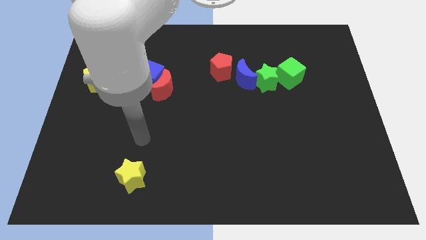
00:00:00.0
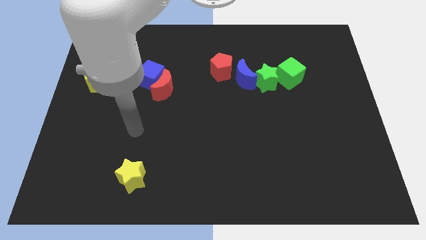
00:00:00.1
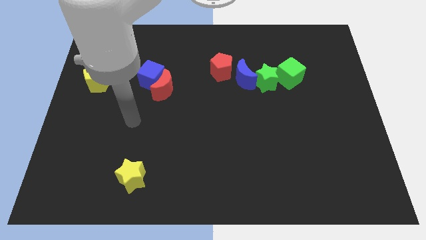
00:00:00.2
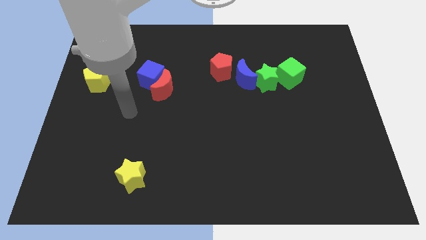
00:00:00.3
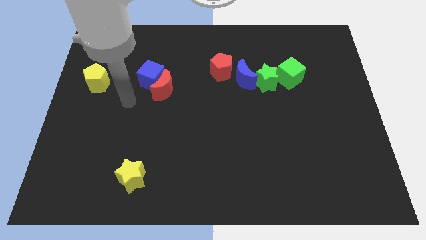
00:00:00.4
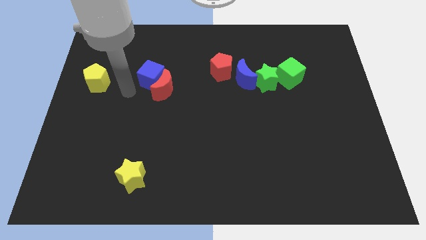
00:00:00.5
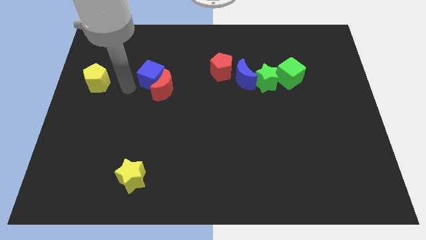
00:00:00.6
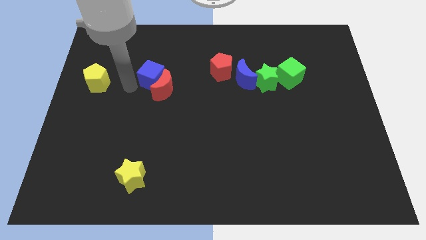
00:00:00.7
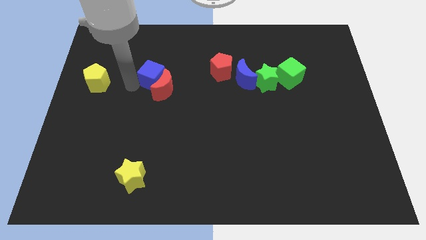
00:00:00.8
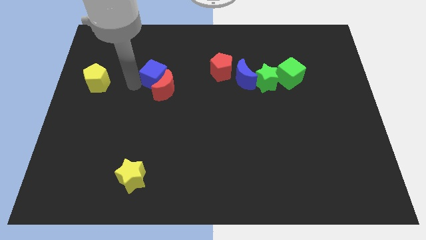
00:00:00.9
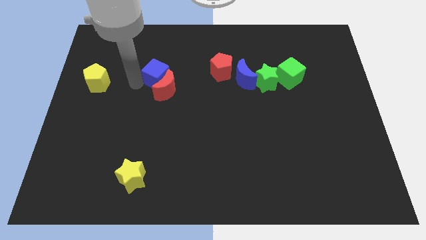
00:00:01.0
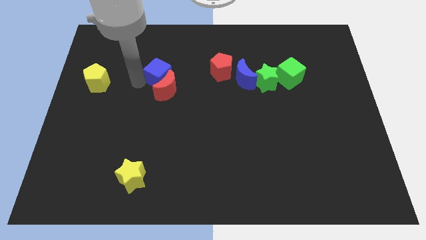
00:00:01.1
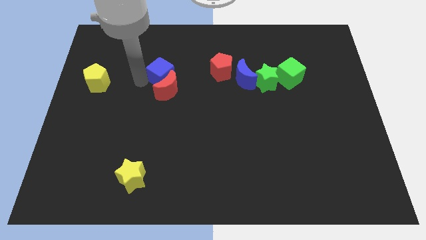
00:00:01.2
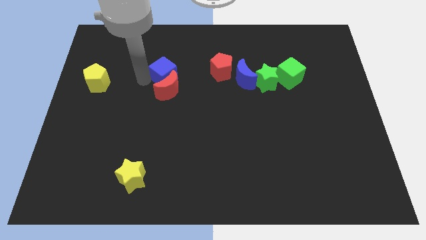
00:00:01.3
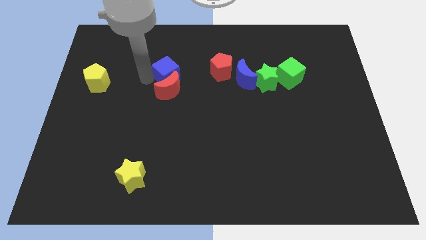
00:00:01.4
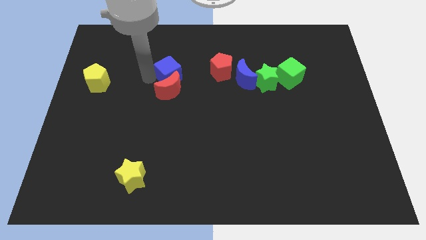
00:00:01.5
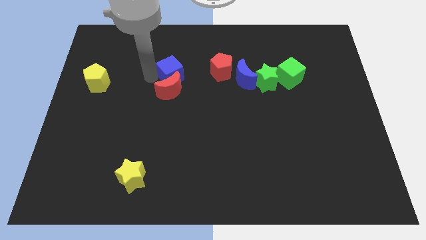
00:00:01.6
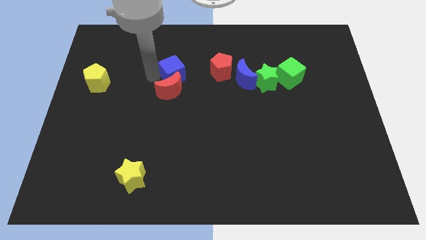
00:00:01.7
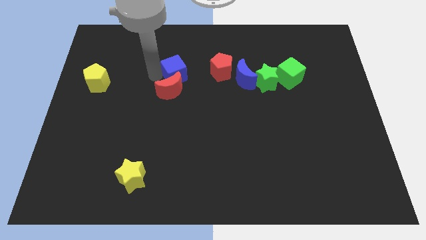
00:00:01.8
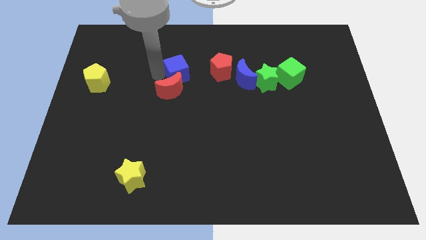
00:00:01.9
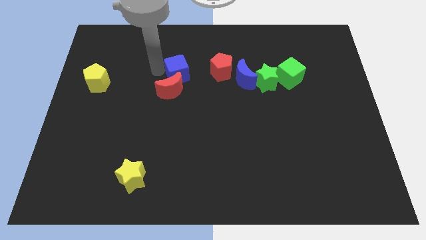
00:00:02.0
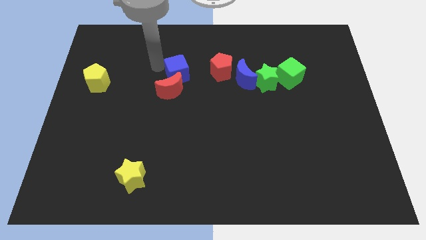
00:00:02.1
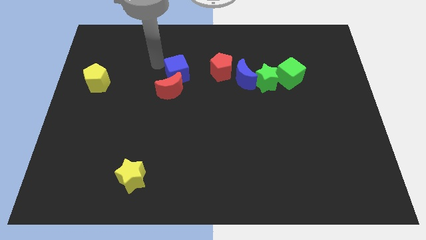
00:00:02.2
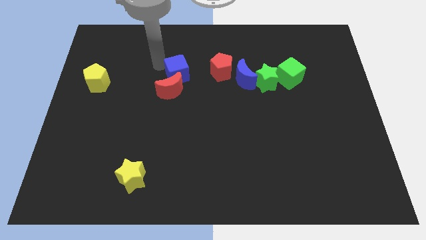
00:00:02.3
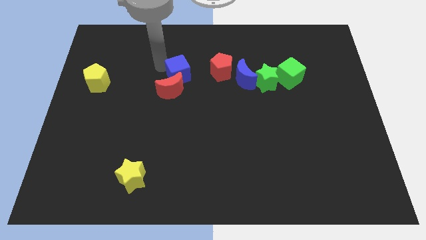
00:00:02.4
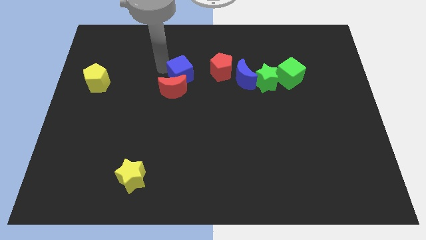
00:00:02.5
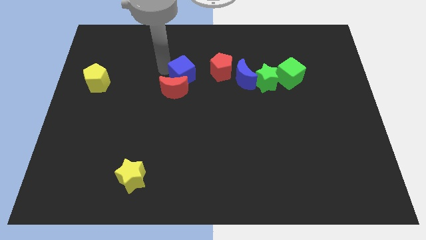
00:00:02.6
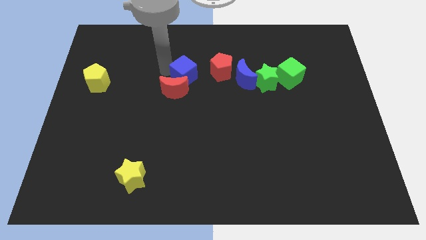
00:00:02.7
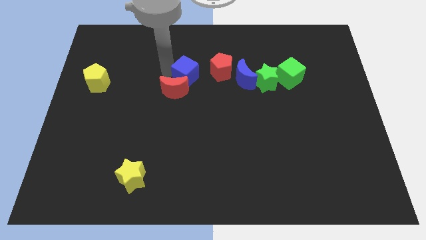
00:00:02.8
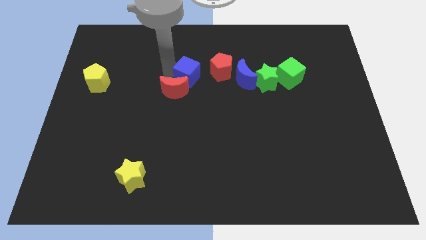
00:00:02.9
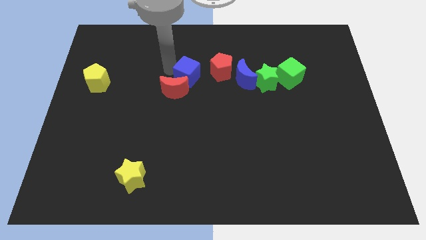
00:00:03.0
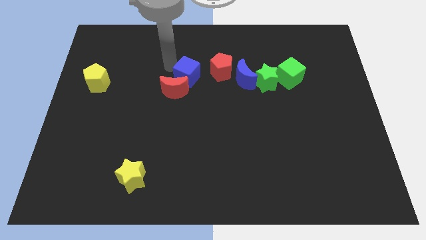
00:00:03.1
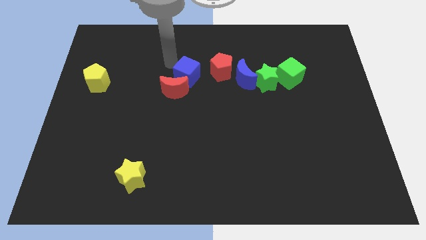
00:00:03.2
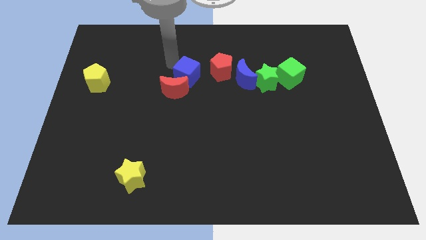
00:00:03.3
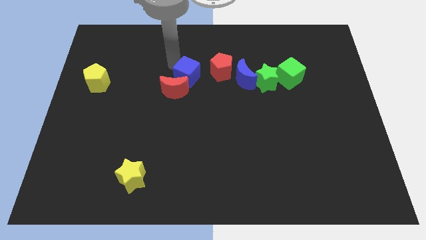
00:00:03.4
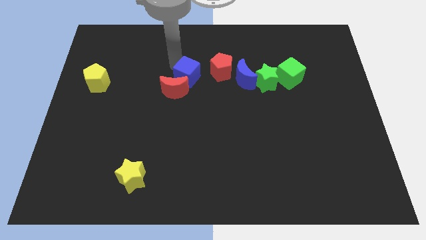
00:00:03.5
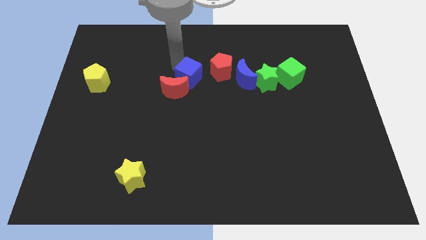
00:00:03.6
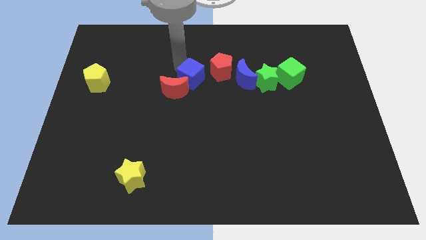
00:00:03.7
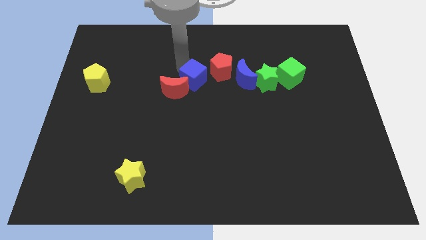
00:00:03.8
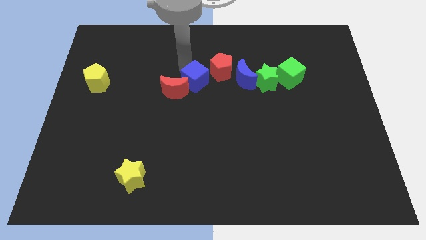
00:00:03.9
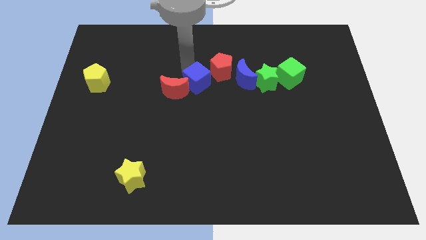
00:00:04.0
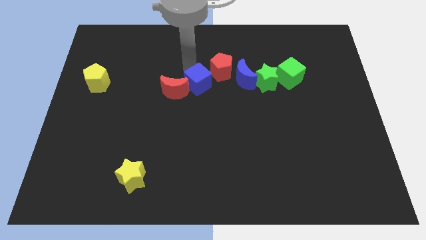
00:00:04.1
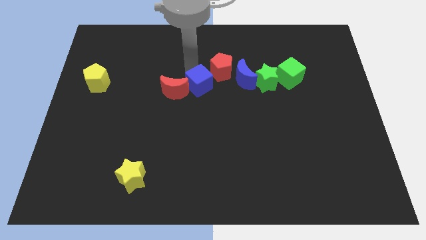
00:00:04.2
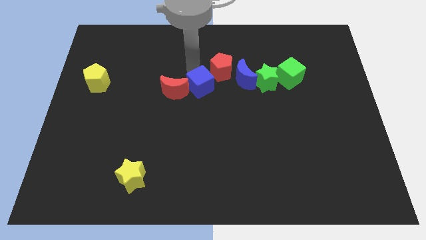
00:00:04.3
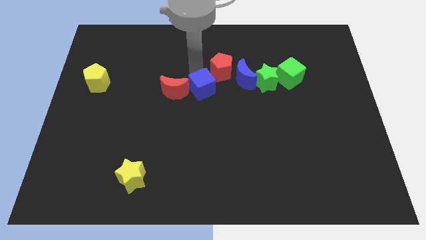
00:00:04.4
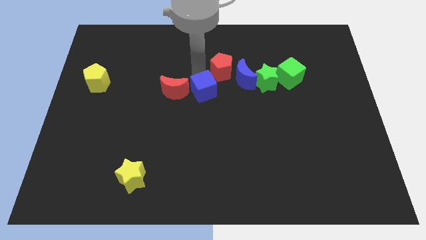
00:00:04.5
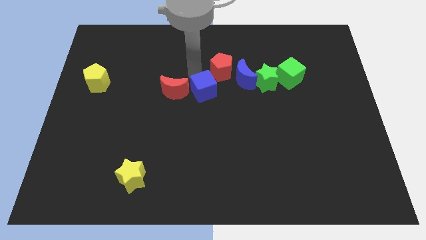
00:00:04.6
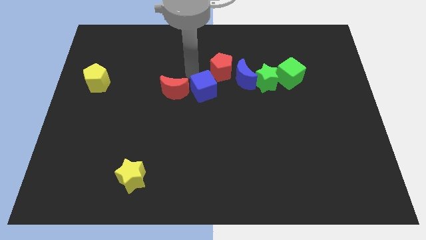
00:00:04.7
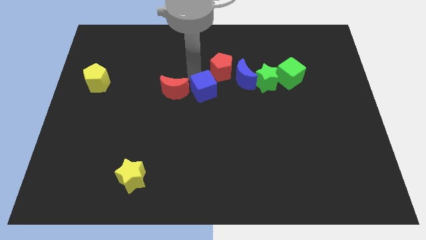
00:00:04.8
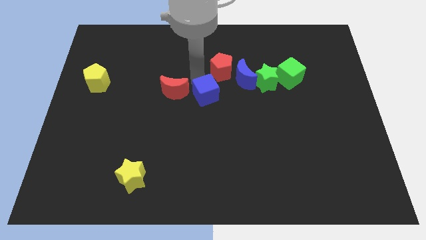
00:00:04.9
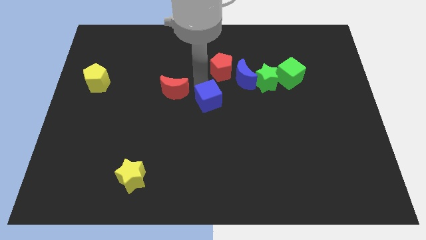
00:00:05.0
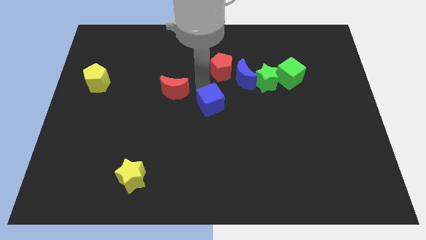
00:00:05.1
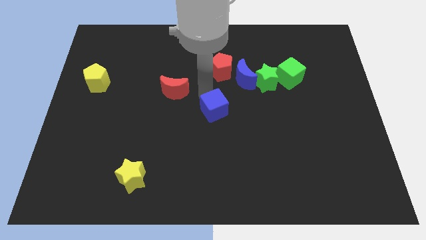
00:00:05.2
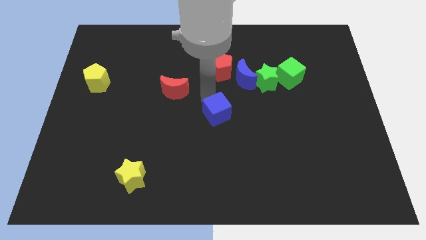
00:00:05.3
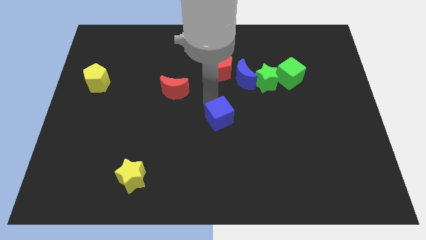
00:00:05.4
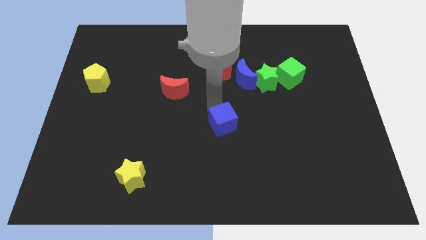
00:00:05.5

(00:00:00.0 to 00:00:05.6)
push the blue cube downwards and then right

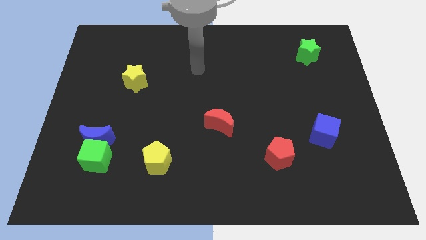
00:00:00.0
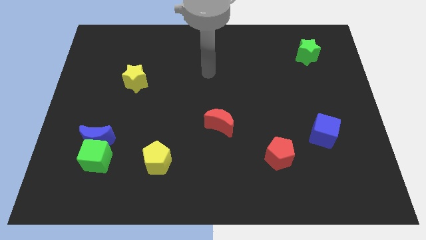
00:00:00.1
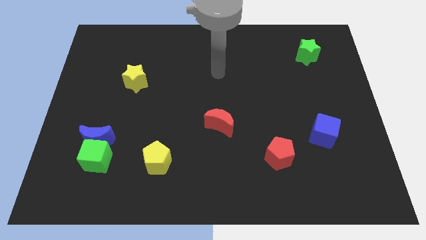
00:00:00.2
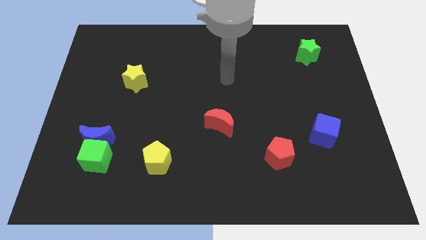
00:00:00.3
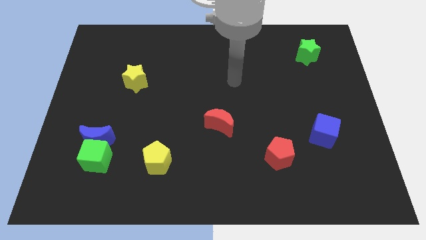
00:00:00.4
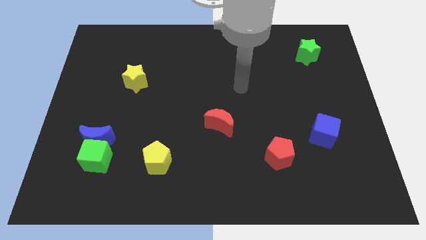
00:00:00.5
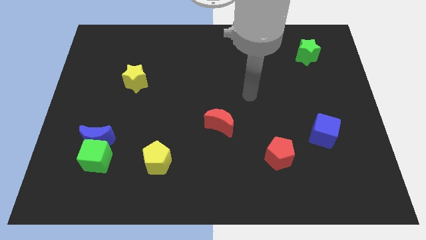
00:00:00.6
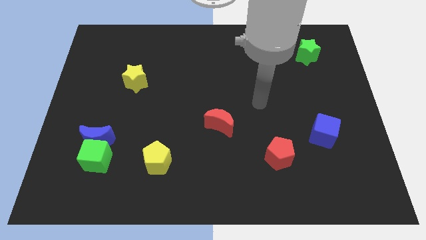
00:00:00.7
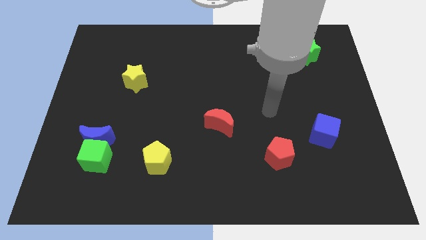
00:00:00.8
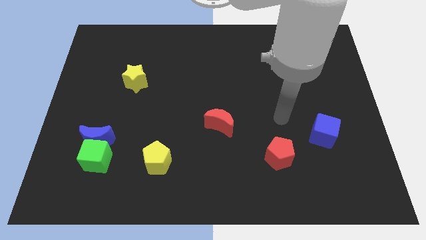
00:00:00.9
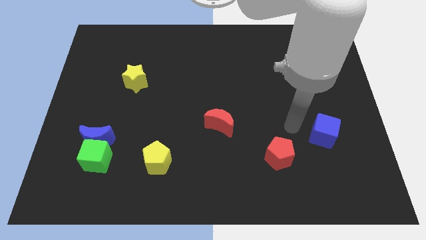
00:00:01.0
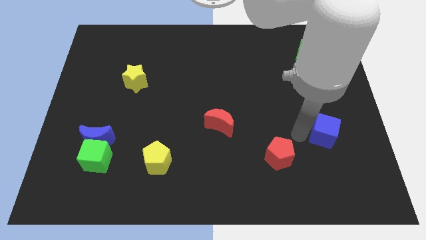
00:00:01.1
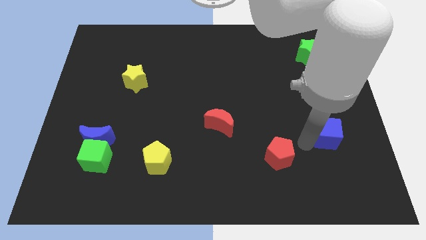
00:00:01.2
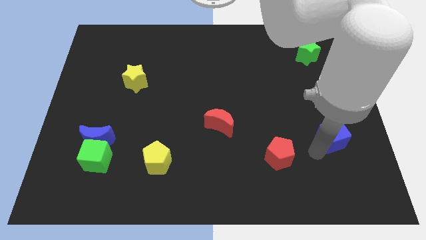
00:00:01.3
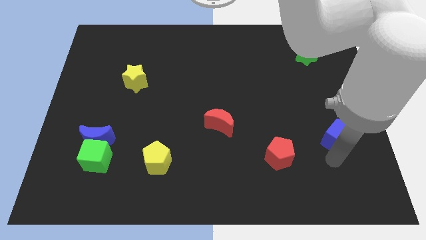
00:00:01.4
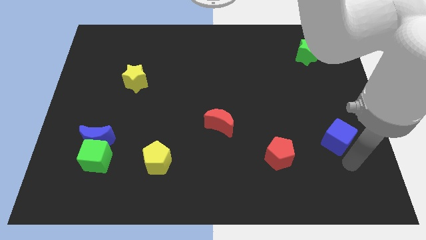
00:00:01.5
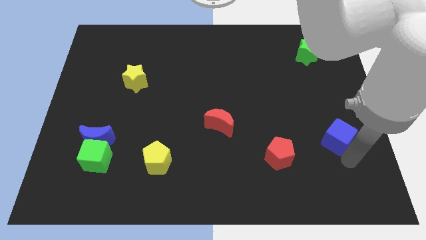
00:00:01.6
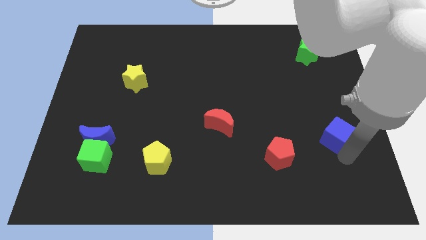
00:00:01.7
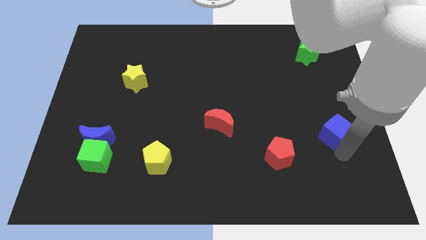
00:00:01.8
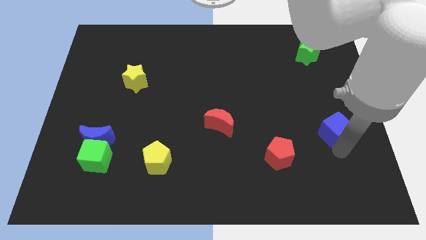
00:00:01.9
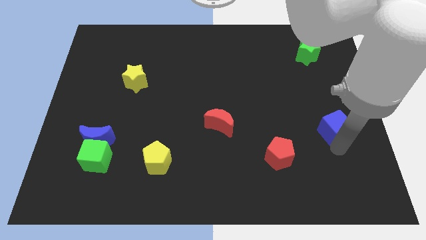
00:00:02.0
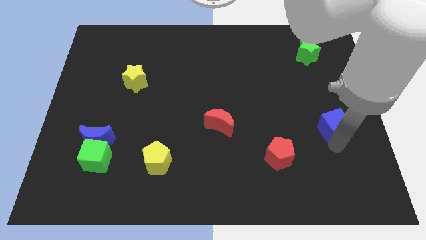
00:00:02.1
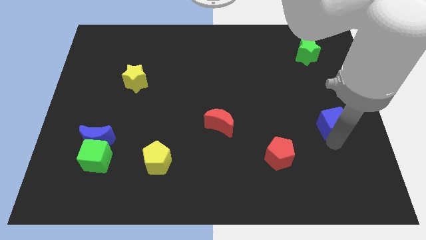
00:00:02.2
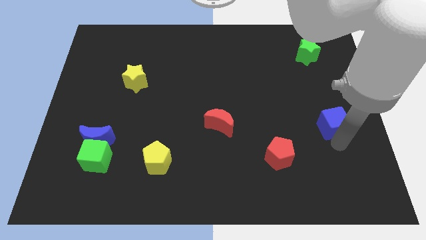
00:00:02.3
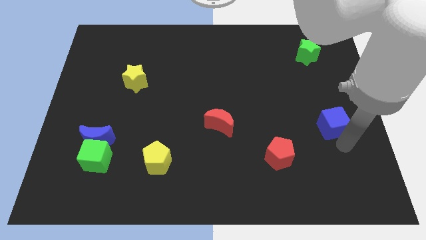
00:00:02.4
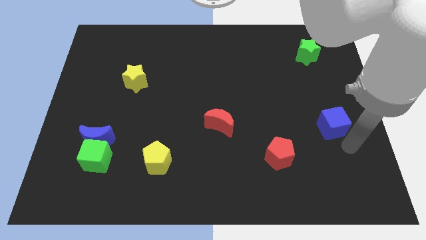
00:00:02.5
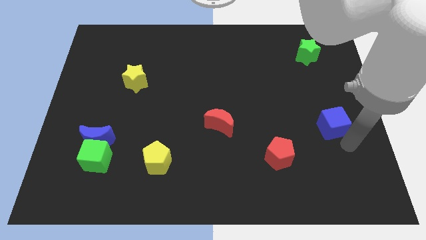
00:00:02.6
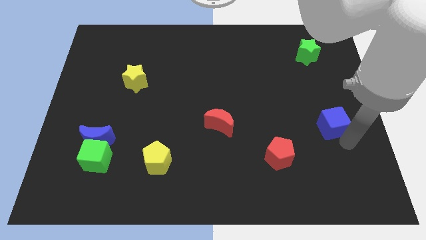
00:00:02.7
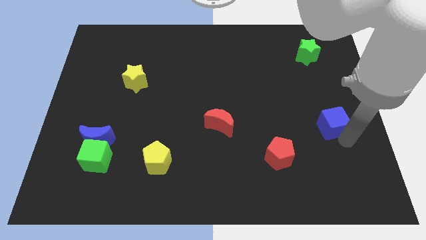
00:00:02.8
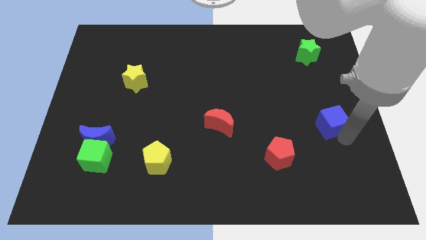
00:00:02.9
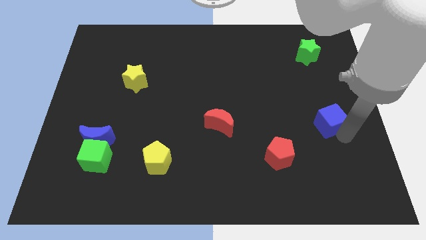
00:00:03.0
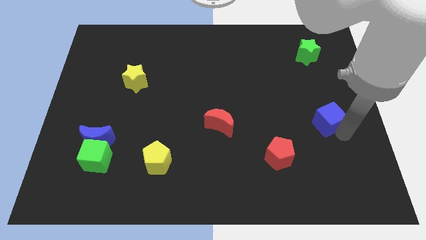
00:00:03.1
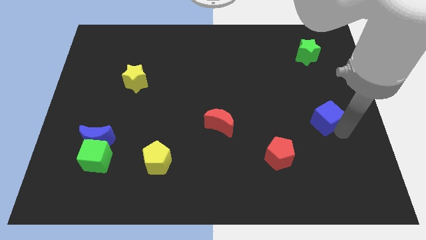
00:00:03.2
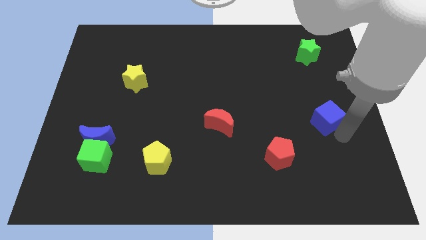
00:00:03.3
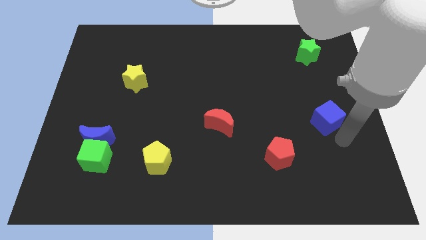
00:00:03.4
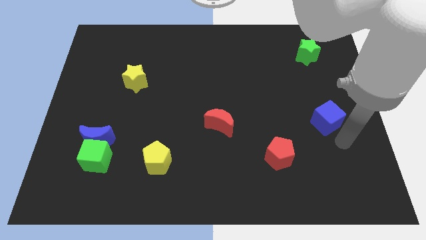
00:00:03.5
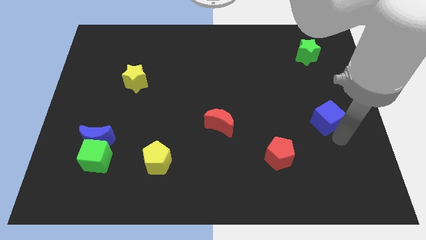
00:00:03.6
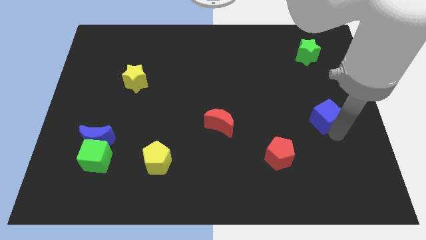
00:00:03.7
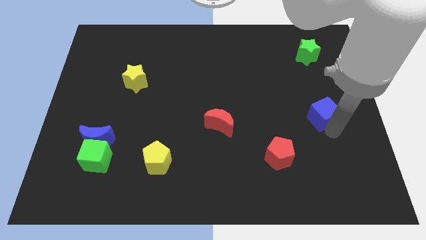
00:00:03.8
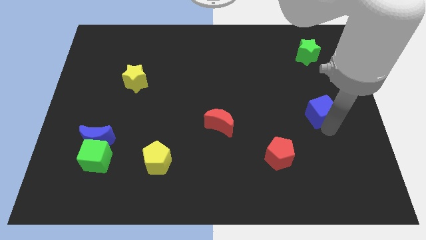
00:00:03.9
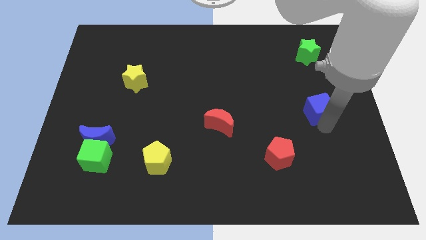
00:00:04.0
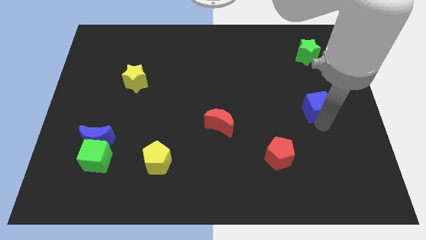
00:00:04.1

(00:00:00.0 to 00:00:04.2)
slightly slide the blue cube up
